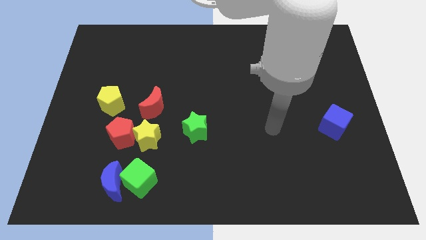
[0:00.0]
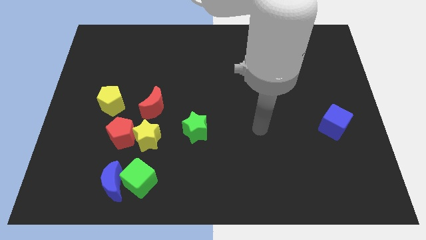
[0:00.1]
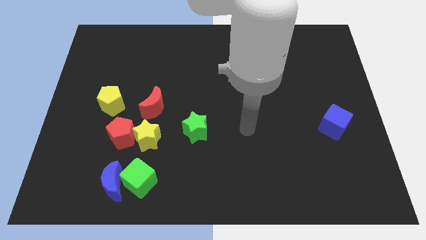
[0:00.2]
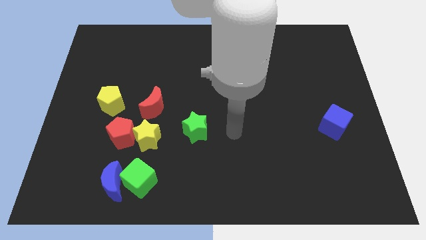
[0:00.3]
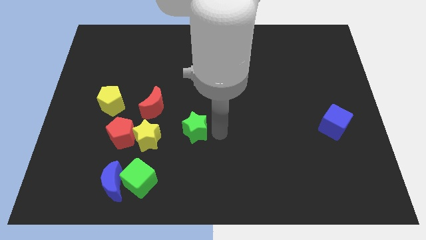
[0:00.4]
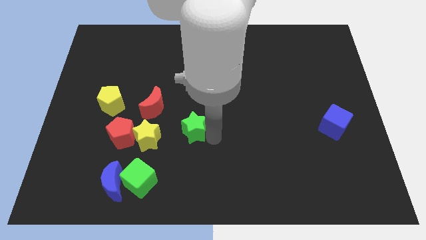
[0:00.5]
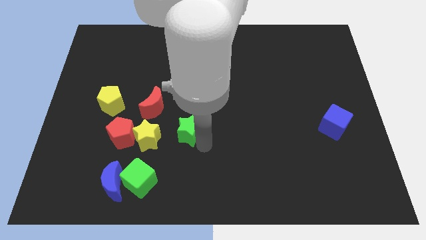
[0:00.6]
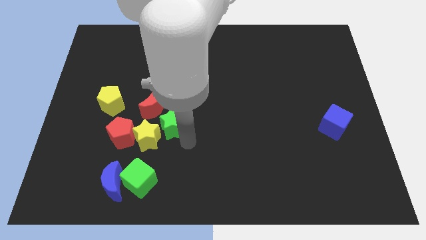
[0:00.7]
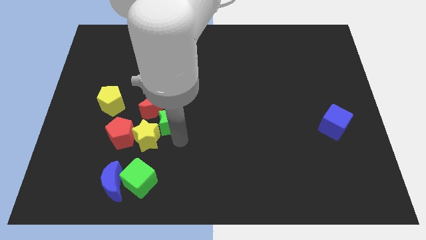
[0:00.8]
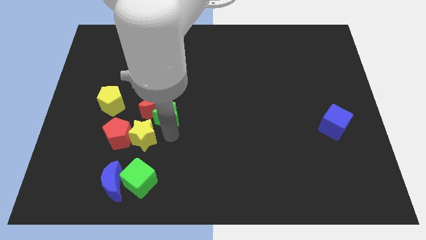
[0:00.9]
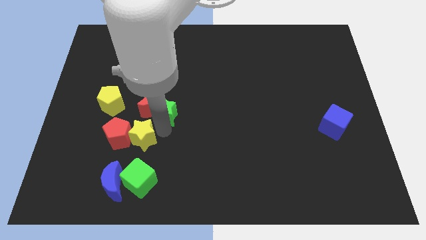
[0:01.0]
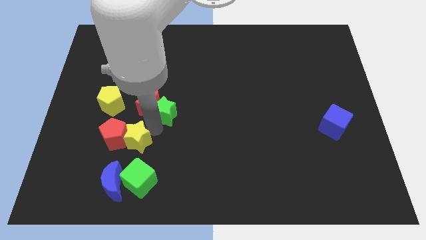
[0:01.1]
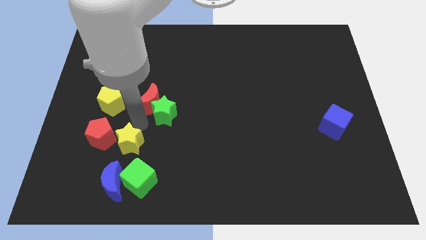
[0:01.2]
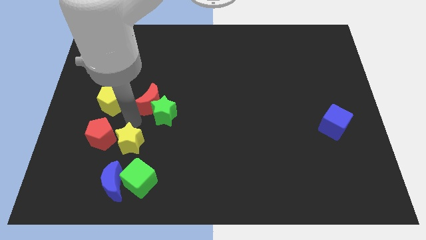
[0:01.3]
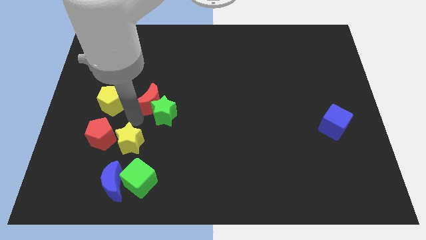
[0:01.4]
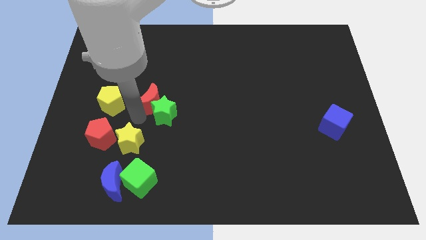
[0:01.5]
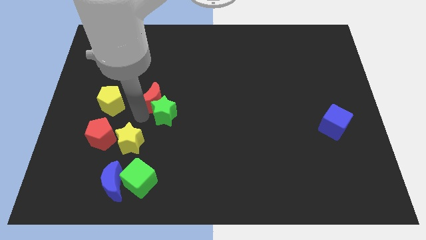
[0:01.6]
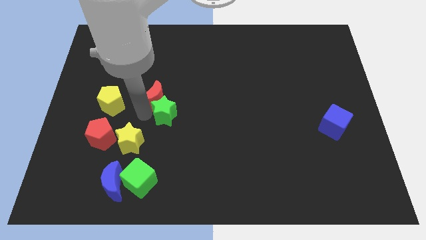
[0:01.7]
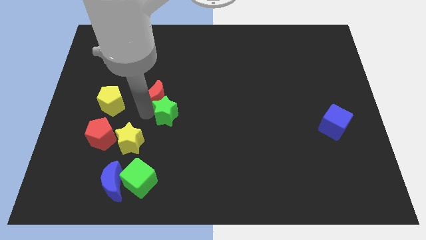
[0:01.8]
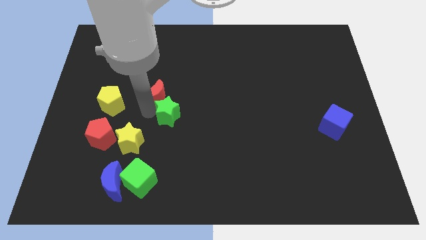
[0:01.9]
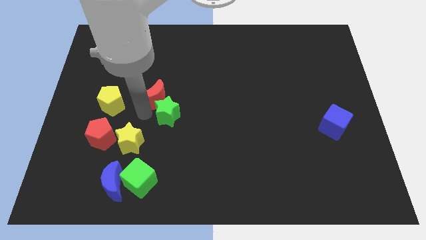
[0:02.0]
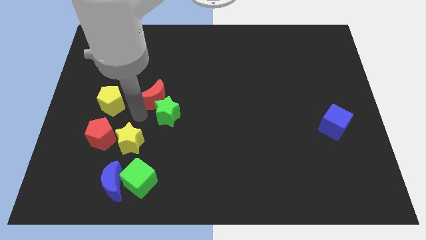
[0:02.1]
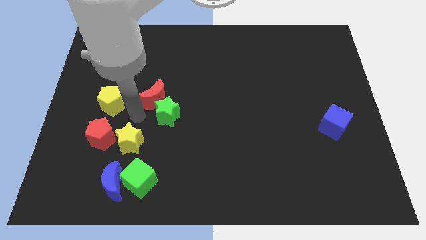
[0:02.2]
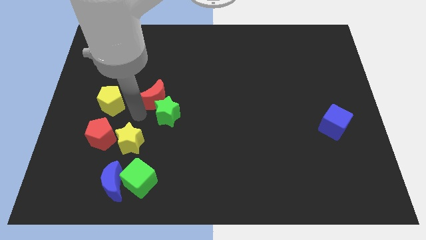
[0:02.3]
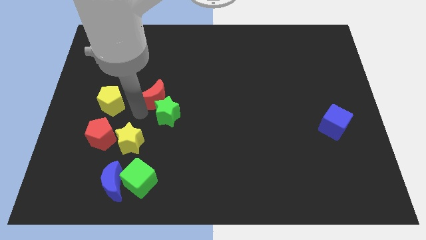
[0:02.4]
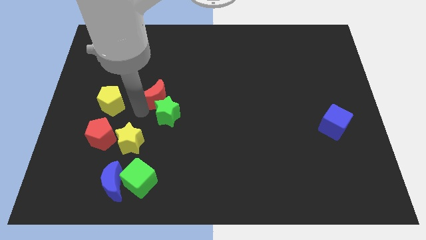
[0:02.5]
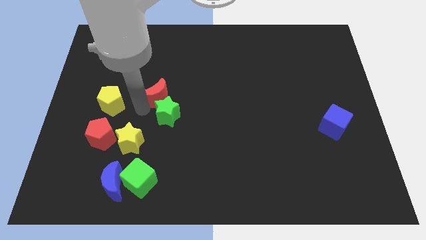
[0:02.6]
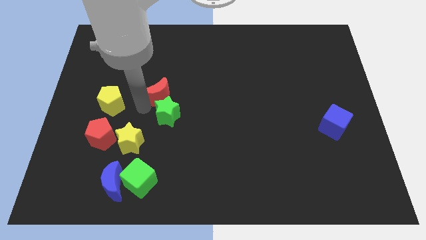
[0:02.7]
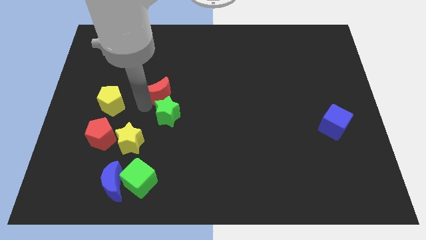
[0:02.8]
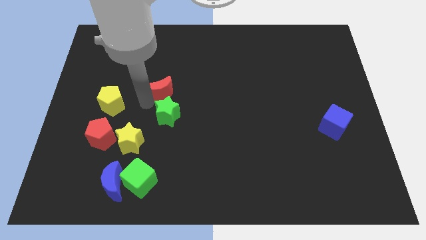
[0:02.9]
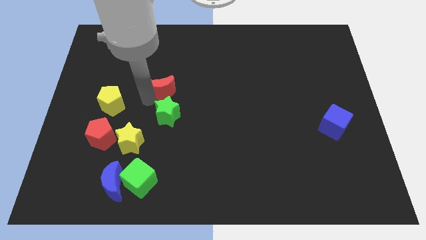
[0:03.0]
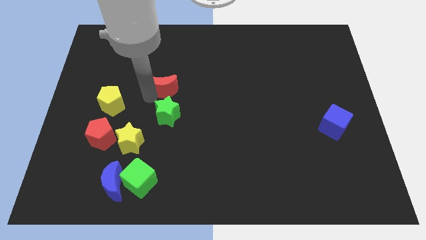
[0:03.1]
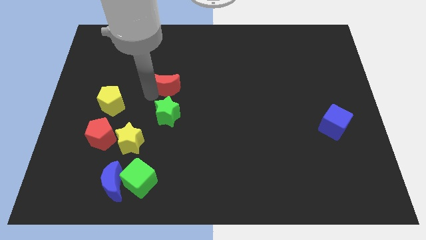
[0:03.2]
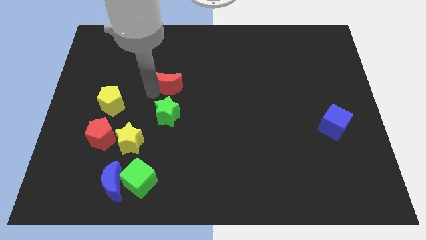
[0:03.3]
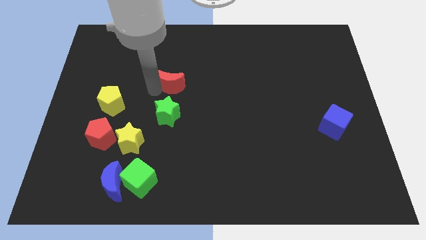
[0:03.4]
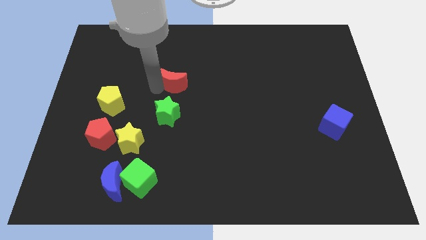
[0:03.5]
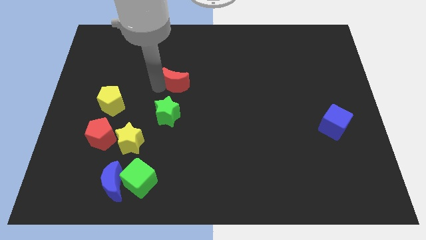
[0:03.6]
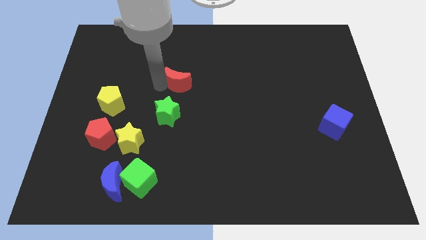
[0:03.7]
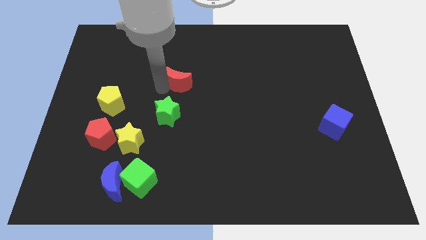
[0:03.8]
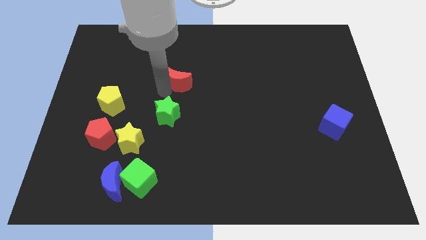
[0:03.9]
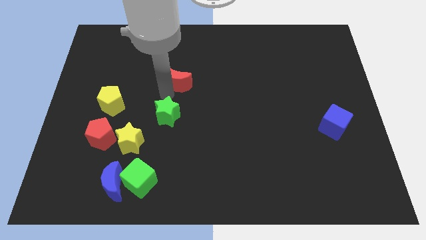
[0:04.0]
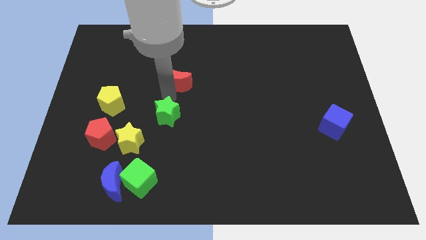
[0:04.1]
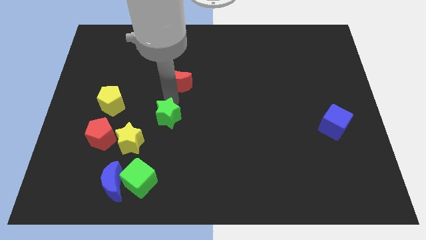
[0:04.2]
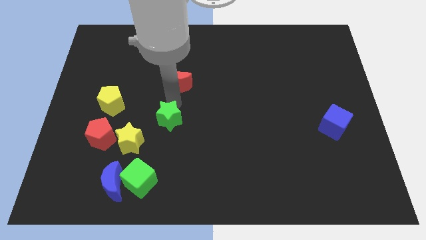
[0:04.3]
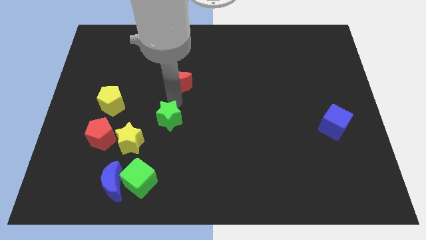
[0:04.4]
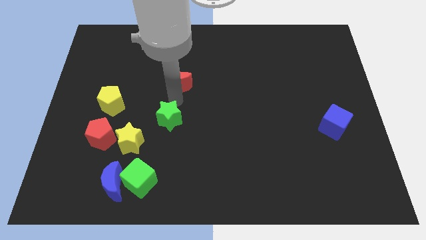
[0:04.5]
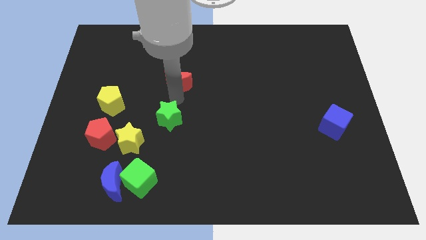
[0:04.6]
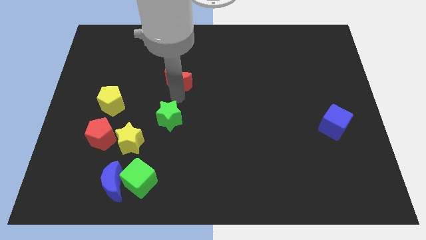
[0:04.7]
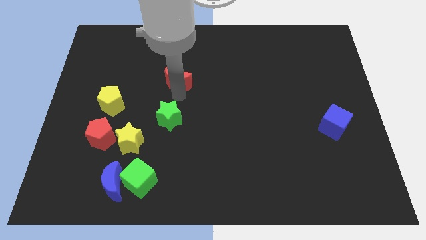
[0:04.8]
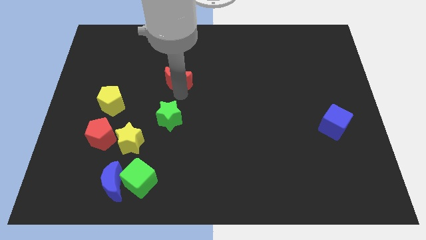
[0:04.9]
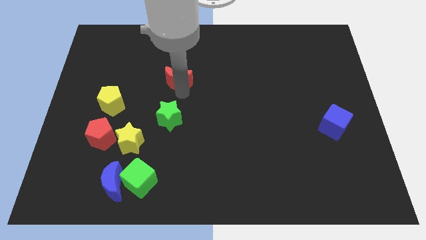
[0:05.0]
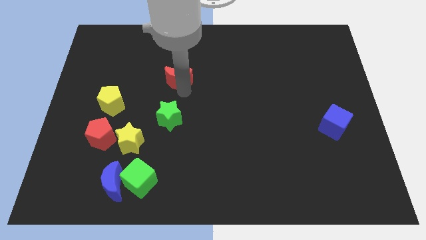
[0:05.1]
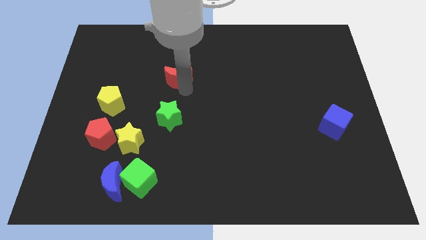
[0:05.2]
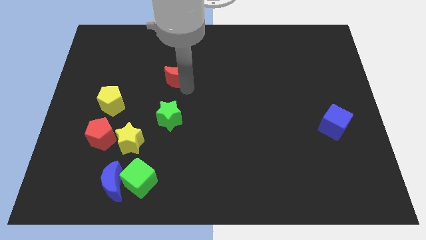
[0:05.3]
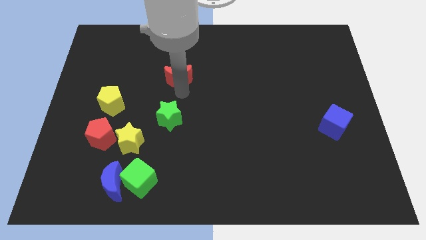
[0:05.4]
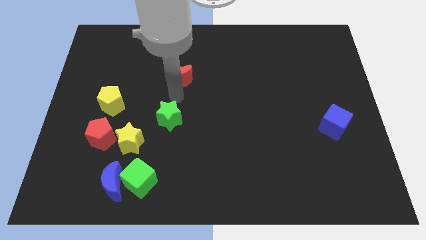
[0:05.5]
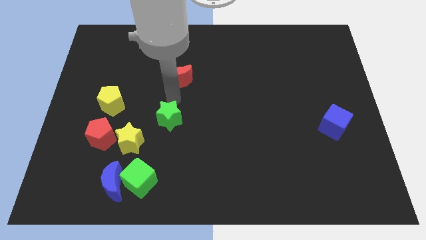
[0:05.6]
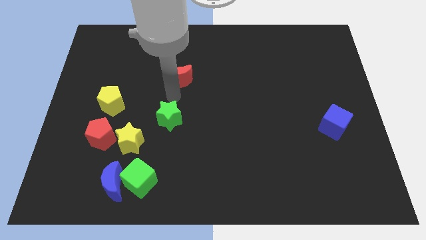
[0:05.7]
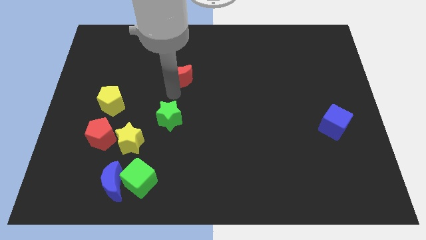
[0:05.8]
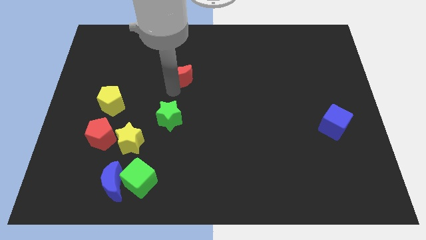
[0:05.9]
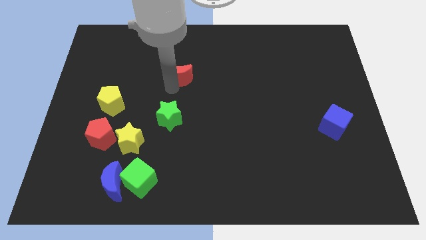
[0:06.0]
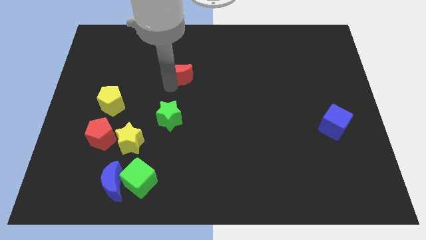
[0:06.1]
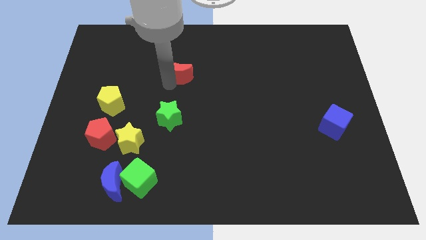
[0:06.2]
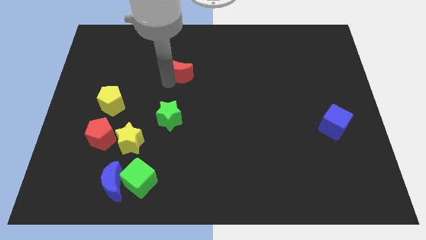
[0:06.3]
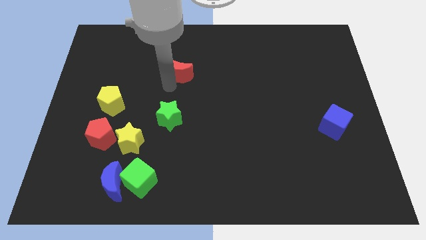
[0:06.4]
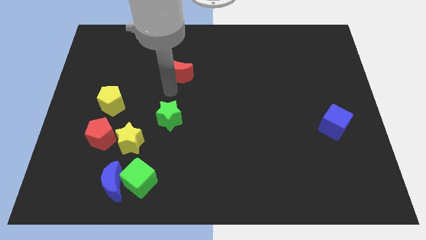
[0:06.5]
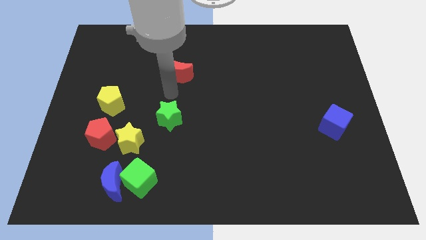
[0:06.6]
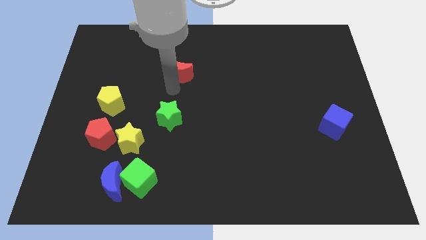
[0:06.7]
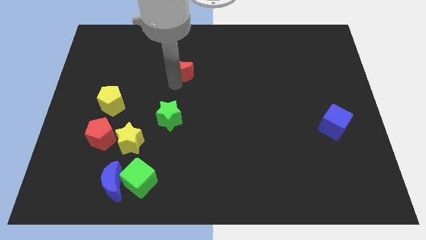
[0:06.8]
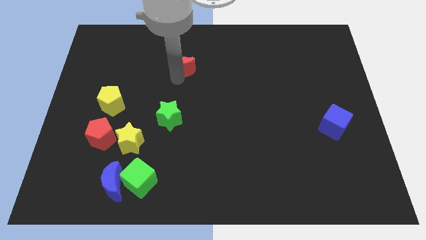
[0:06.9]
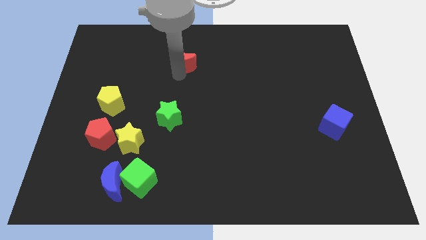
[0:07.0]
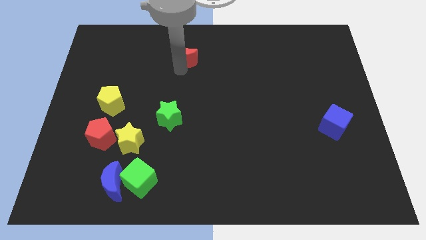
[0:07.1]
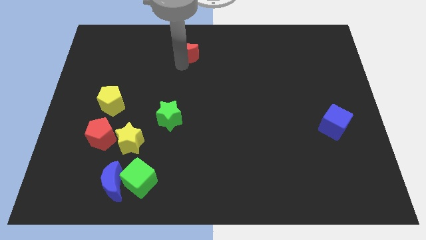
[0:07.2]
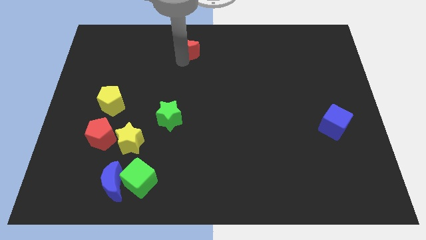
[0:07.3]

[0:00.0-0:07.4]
move the red moon to the top
